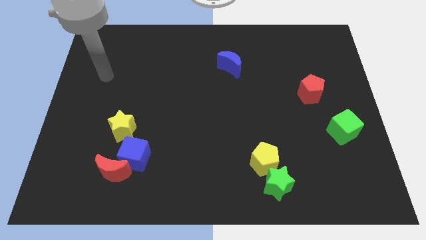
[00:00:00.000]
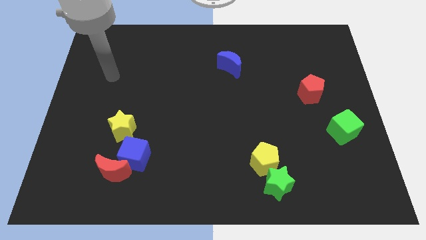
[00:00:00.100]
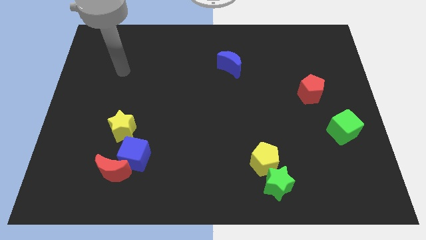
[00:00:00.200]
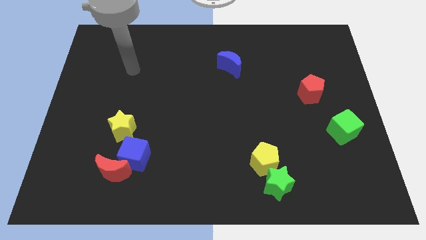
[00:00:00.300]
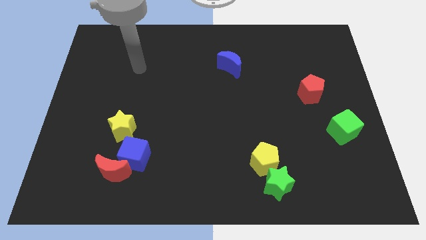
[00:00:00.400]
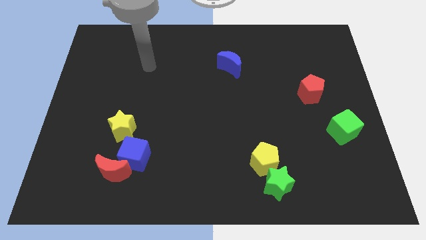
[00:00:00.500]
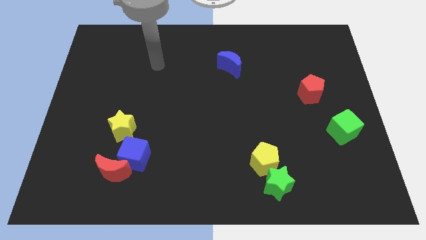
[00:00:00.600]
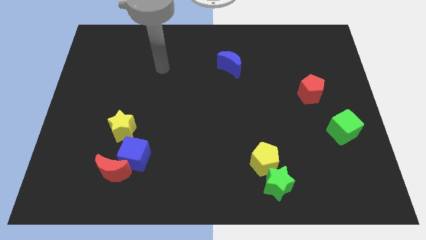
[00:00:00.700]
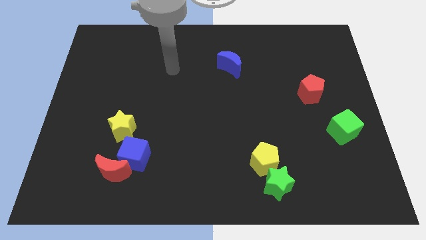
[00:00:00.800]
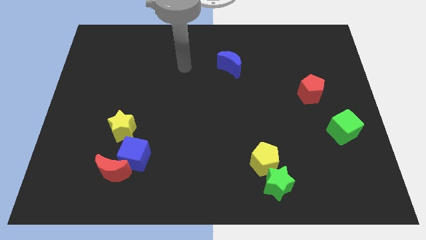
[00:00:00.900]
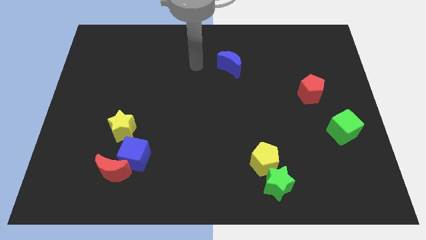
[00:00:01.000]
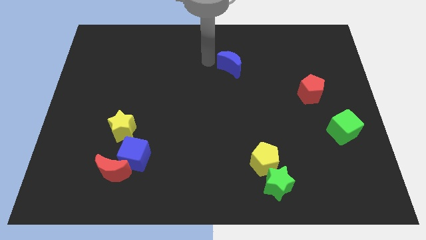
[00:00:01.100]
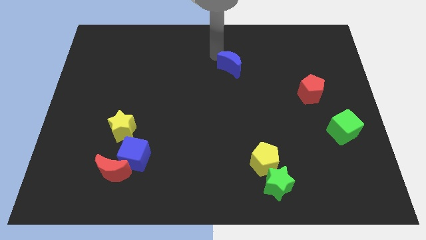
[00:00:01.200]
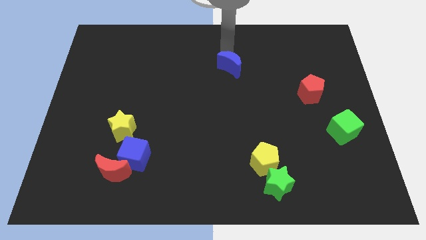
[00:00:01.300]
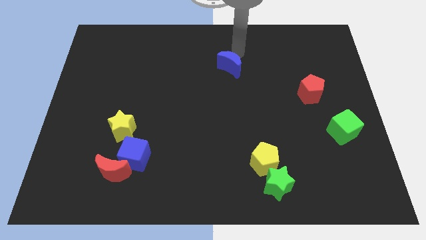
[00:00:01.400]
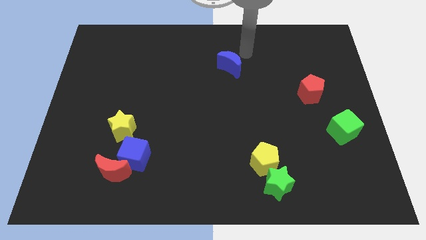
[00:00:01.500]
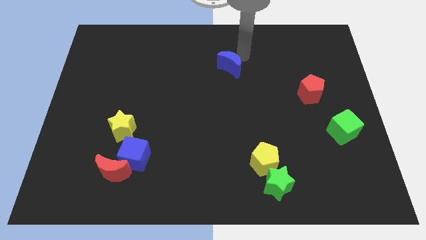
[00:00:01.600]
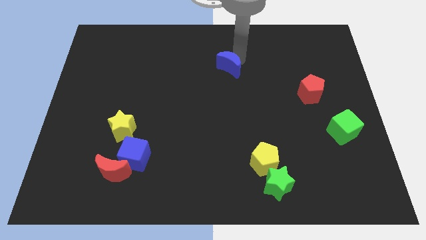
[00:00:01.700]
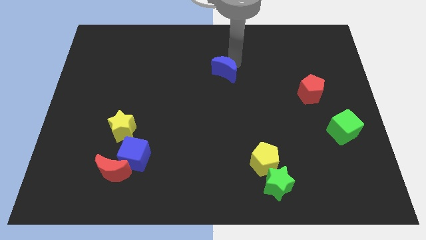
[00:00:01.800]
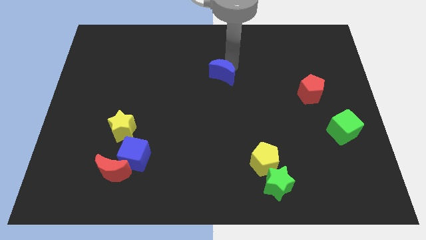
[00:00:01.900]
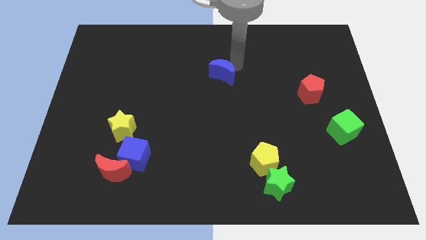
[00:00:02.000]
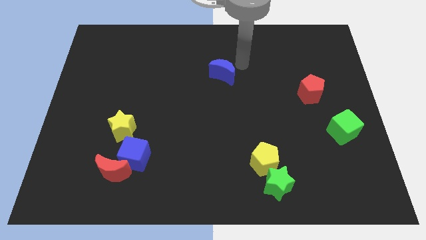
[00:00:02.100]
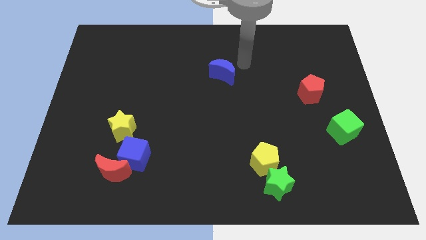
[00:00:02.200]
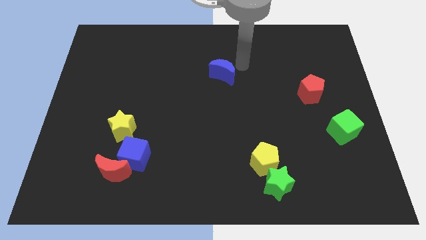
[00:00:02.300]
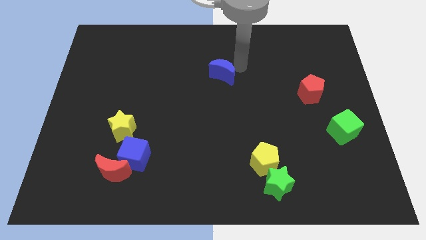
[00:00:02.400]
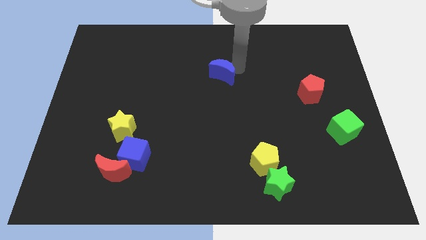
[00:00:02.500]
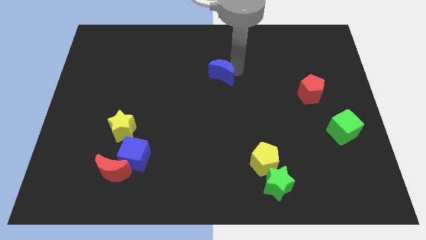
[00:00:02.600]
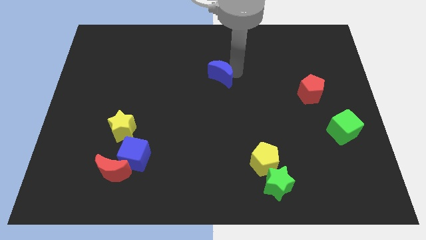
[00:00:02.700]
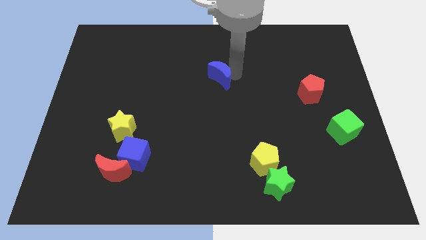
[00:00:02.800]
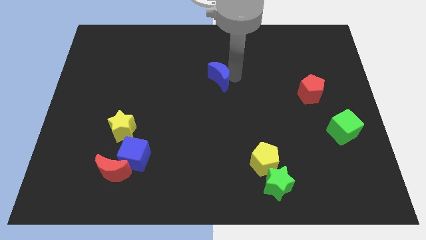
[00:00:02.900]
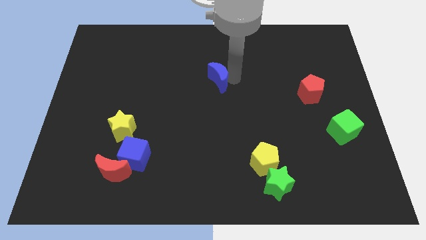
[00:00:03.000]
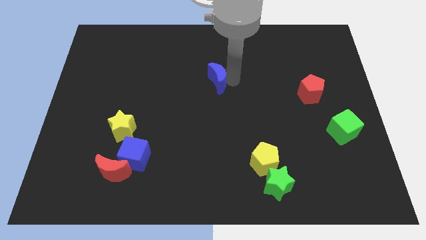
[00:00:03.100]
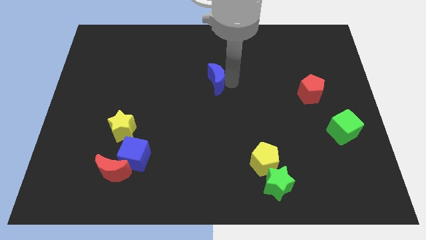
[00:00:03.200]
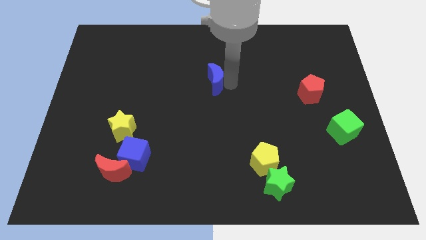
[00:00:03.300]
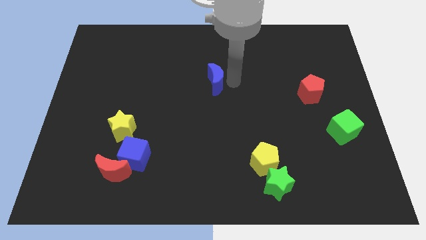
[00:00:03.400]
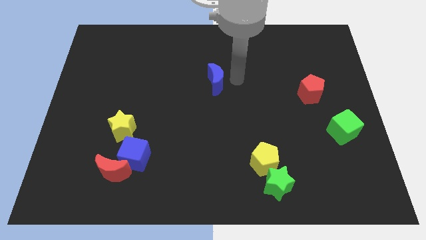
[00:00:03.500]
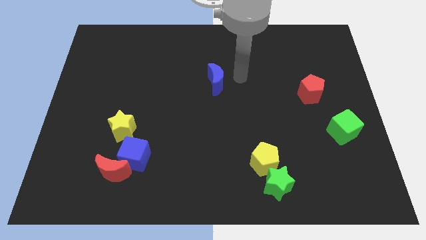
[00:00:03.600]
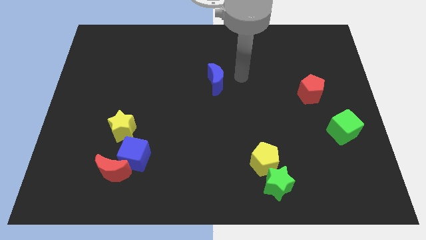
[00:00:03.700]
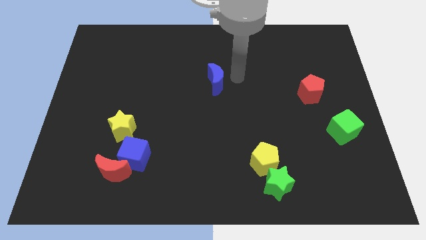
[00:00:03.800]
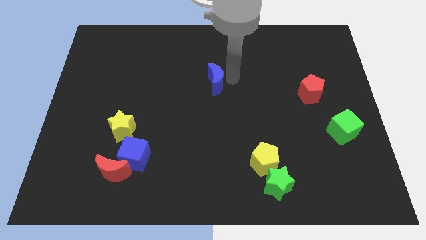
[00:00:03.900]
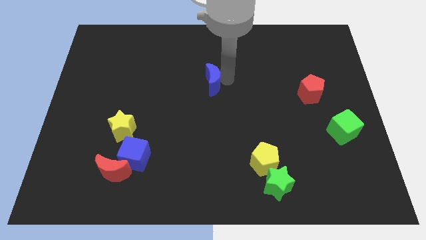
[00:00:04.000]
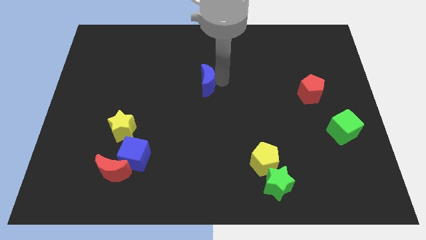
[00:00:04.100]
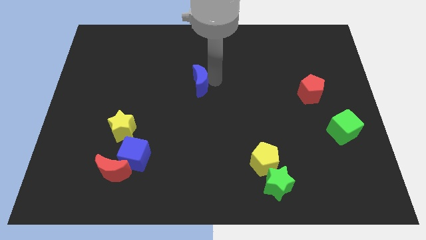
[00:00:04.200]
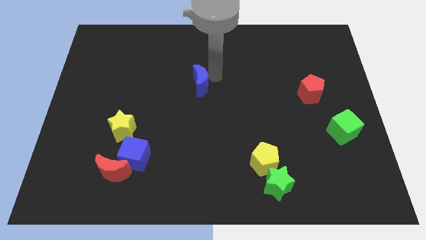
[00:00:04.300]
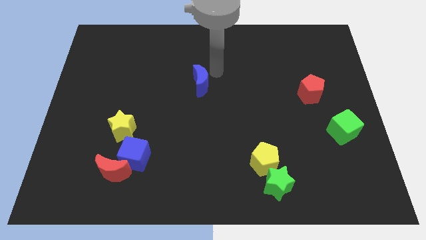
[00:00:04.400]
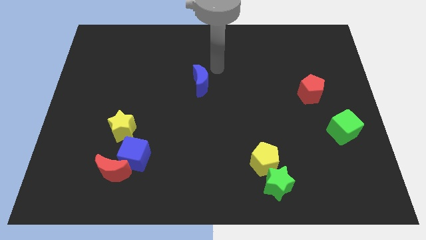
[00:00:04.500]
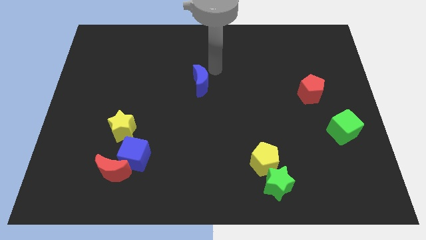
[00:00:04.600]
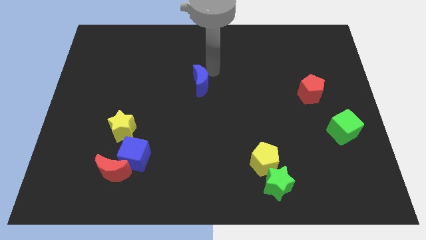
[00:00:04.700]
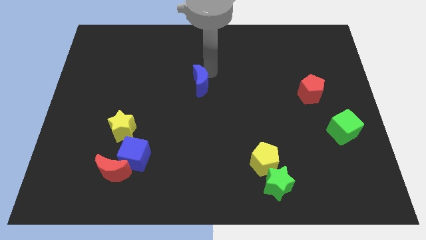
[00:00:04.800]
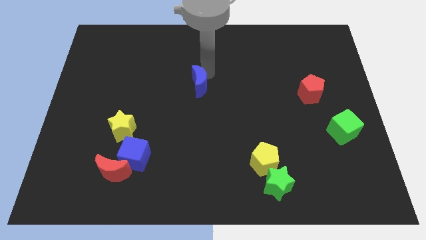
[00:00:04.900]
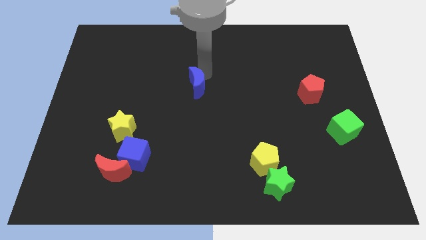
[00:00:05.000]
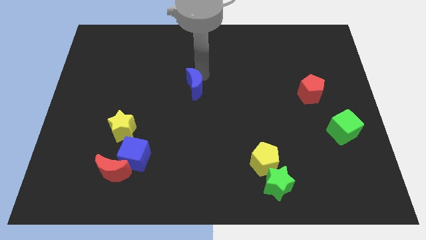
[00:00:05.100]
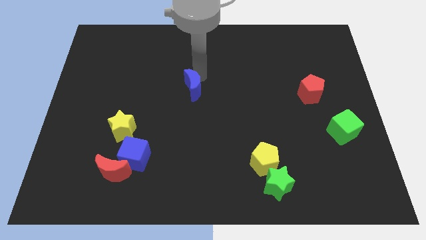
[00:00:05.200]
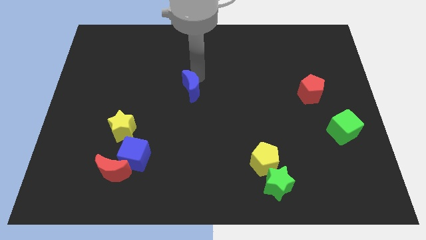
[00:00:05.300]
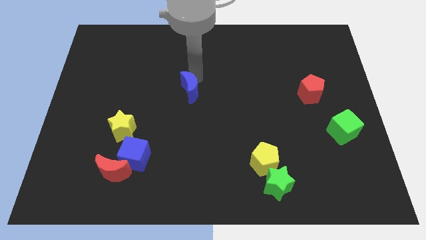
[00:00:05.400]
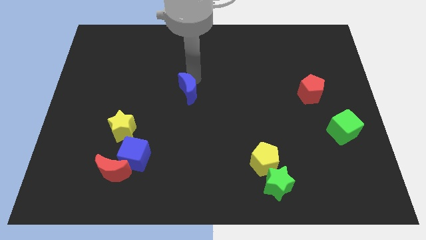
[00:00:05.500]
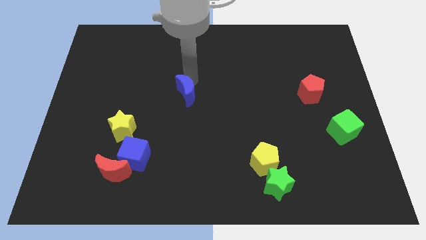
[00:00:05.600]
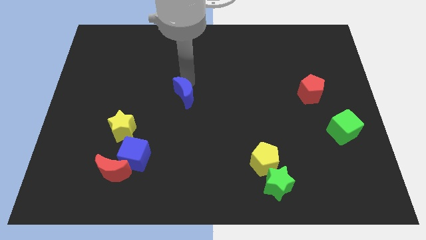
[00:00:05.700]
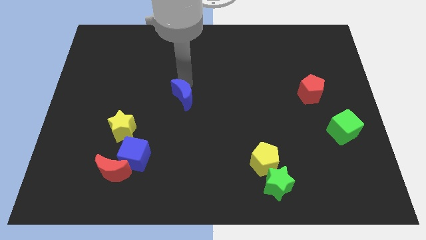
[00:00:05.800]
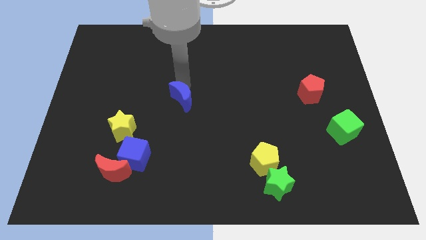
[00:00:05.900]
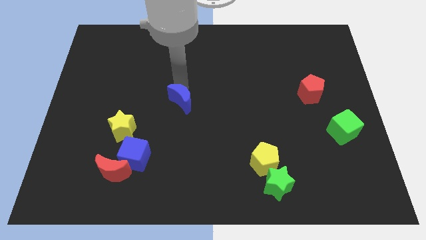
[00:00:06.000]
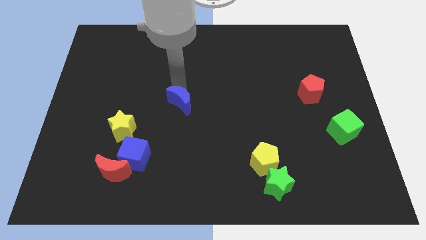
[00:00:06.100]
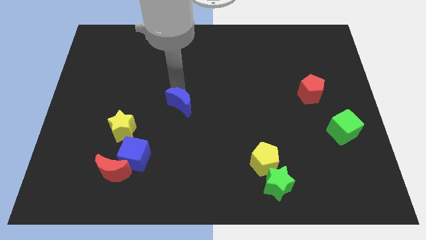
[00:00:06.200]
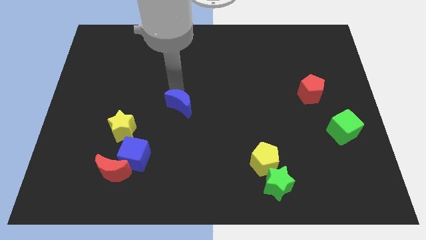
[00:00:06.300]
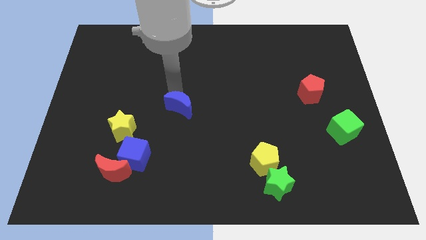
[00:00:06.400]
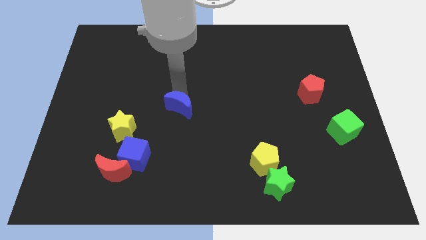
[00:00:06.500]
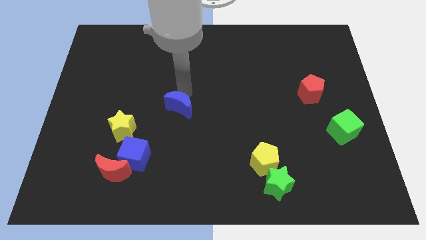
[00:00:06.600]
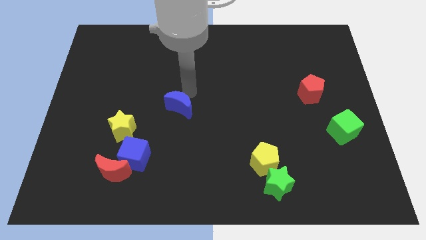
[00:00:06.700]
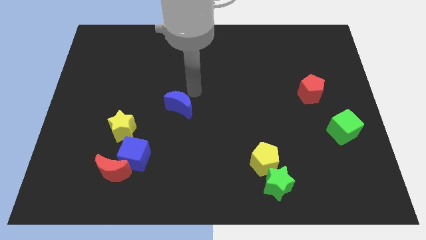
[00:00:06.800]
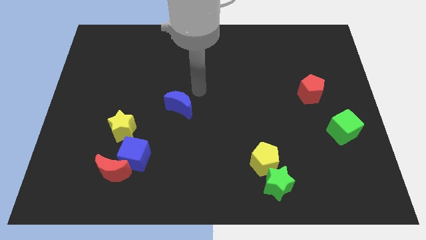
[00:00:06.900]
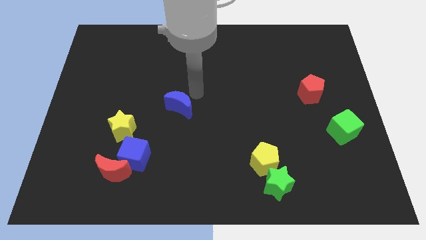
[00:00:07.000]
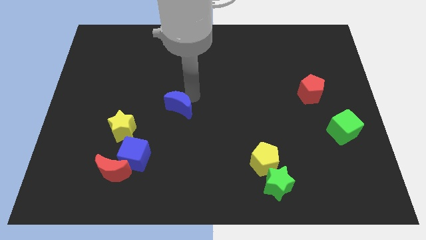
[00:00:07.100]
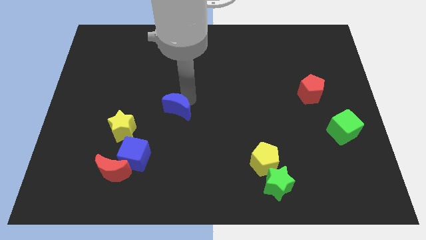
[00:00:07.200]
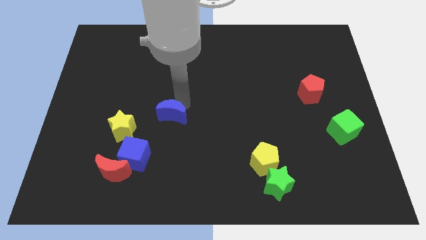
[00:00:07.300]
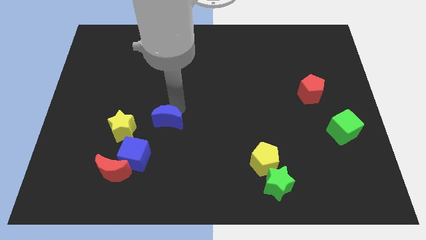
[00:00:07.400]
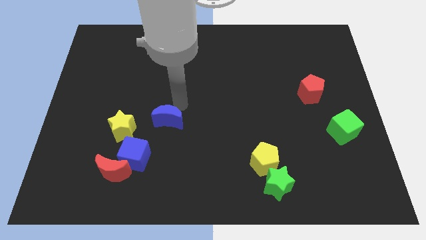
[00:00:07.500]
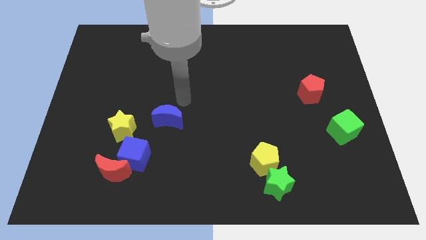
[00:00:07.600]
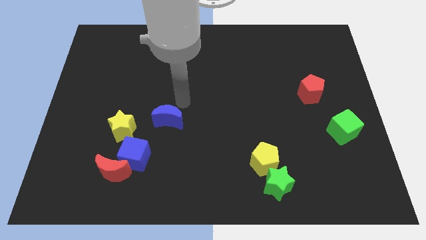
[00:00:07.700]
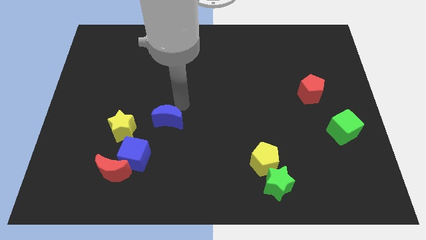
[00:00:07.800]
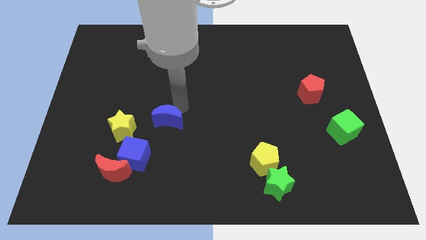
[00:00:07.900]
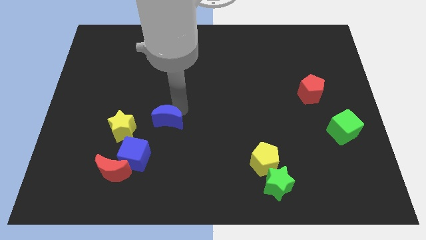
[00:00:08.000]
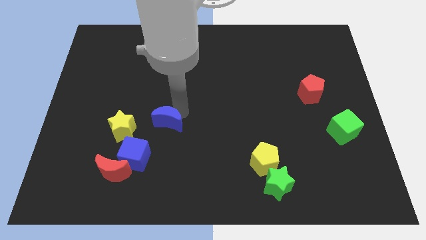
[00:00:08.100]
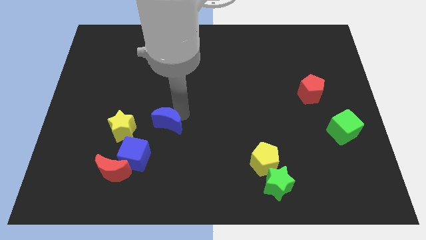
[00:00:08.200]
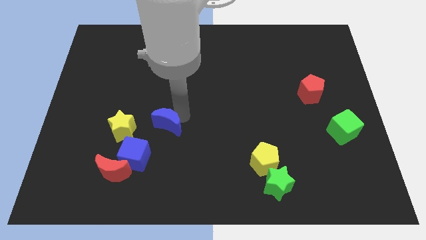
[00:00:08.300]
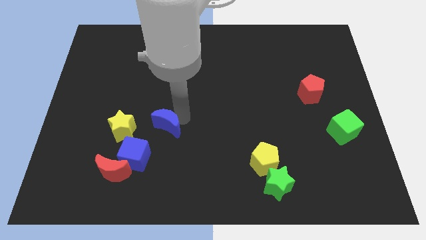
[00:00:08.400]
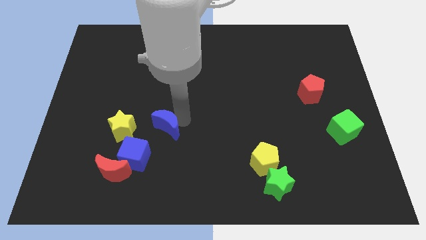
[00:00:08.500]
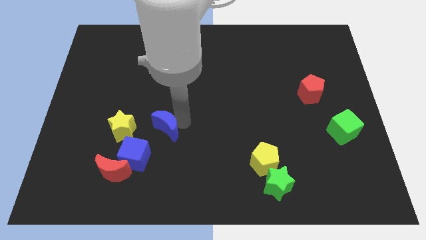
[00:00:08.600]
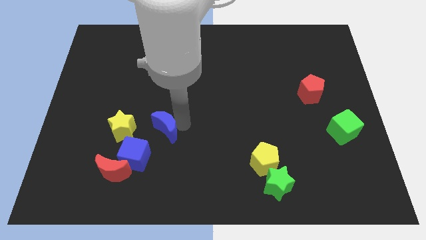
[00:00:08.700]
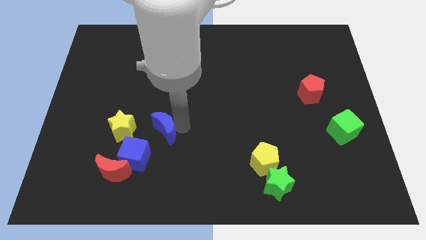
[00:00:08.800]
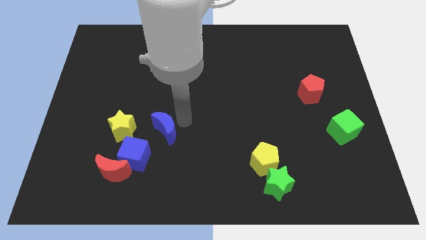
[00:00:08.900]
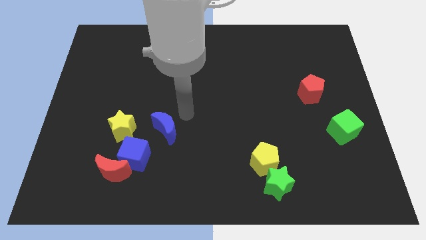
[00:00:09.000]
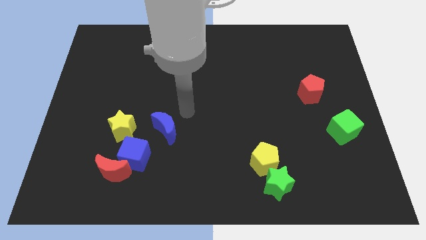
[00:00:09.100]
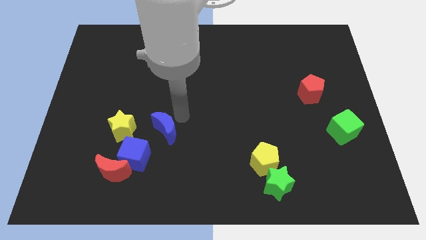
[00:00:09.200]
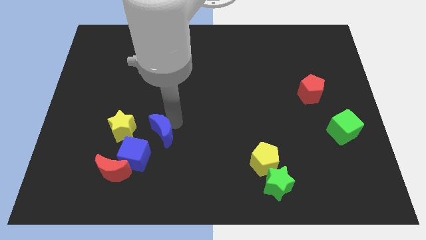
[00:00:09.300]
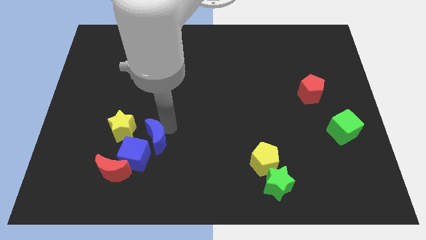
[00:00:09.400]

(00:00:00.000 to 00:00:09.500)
slide the blue moon next to the blue cube
